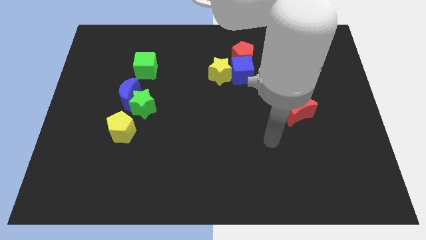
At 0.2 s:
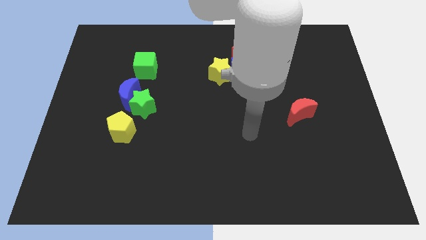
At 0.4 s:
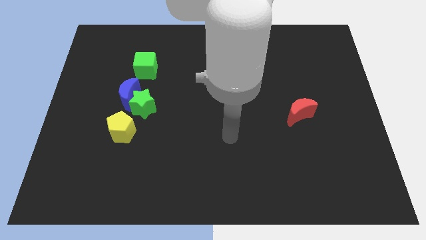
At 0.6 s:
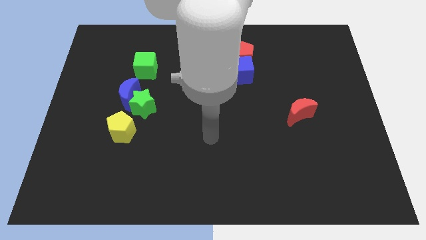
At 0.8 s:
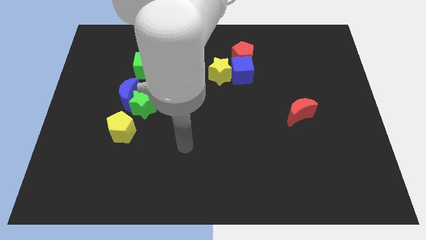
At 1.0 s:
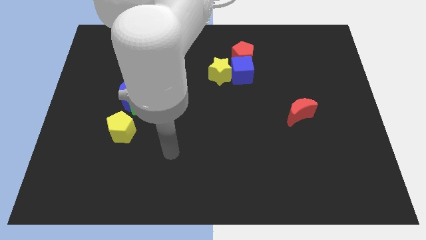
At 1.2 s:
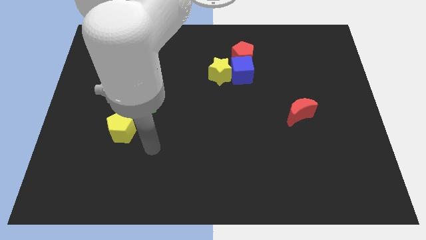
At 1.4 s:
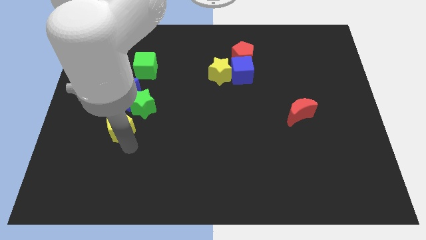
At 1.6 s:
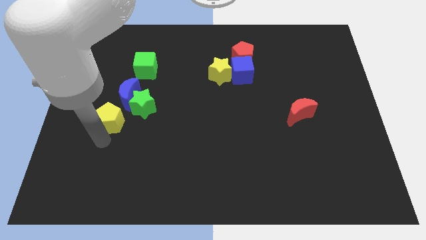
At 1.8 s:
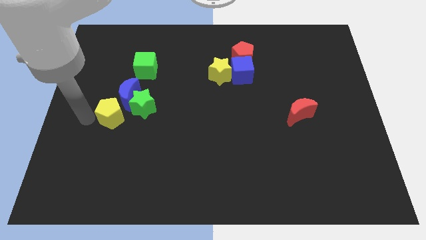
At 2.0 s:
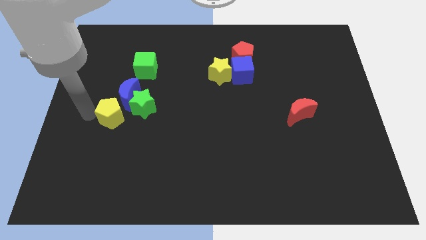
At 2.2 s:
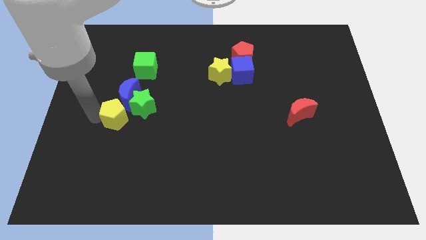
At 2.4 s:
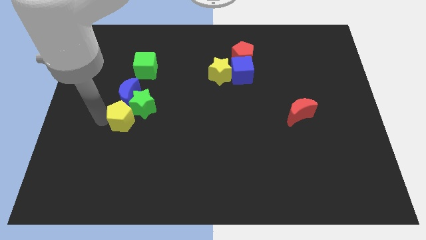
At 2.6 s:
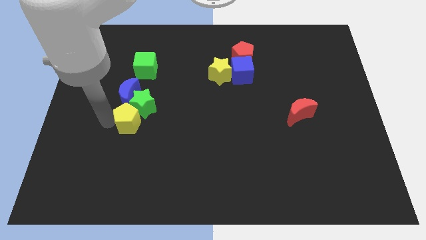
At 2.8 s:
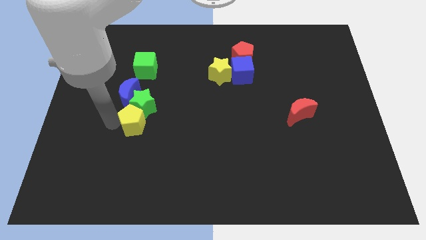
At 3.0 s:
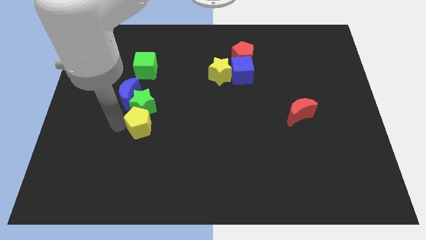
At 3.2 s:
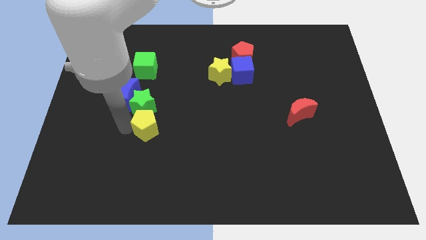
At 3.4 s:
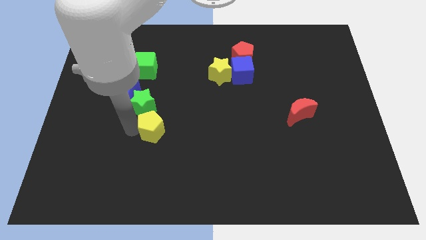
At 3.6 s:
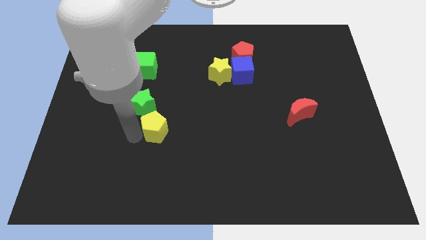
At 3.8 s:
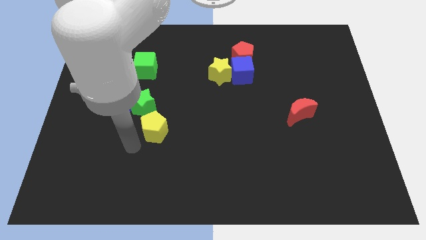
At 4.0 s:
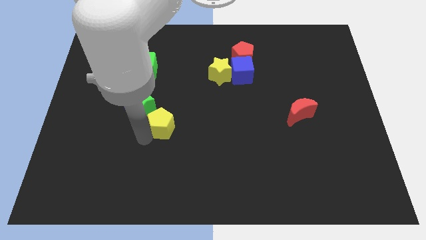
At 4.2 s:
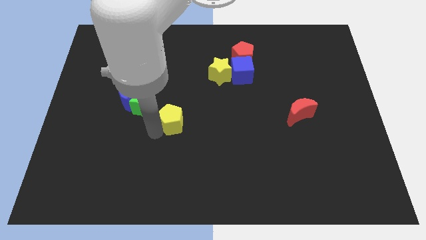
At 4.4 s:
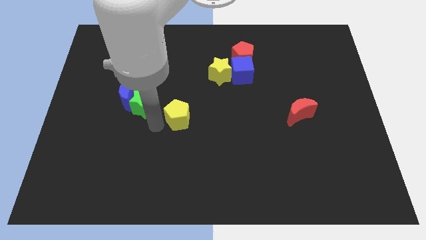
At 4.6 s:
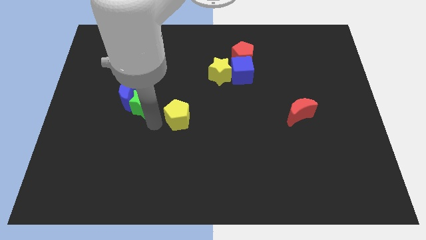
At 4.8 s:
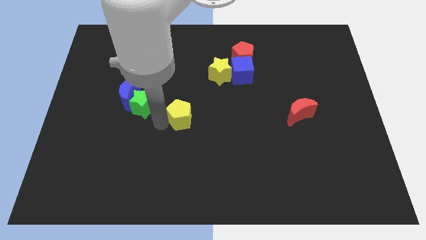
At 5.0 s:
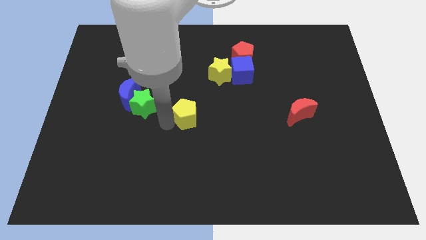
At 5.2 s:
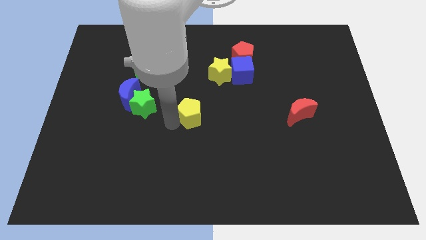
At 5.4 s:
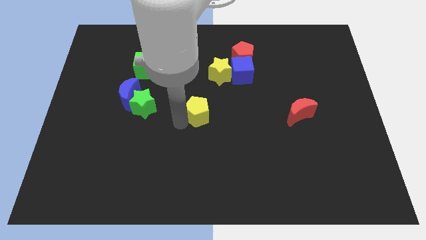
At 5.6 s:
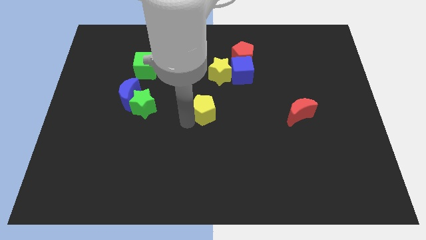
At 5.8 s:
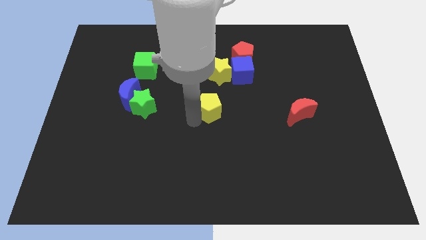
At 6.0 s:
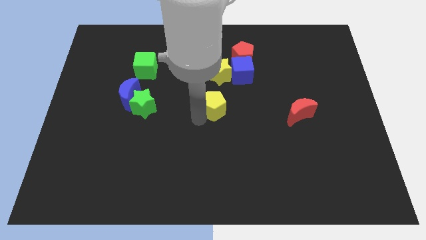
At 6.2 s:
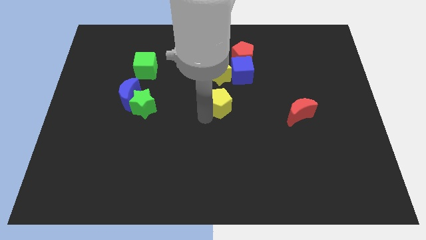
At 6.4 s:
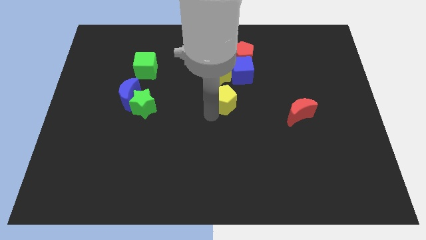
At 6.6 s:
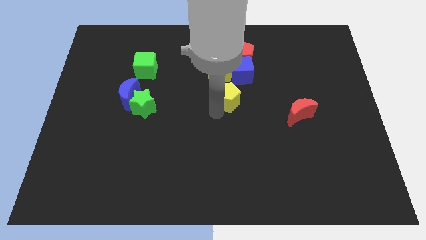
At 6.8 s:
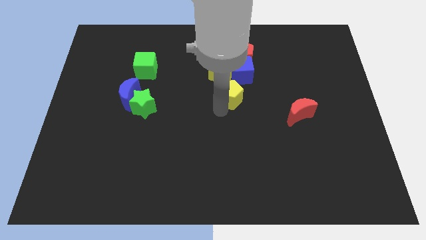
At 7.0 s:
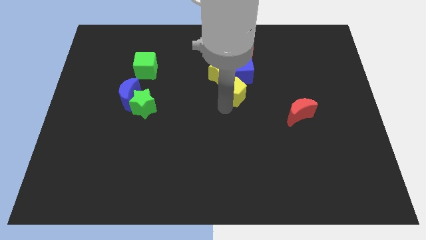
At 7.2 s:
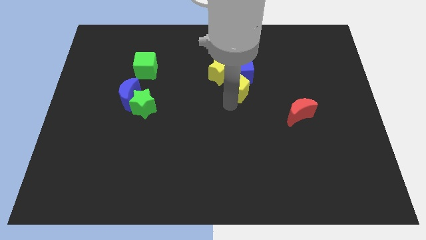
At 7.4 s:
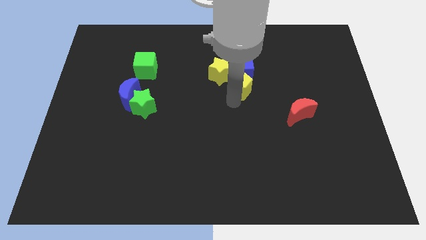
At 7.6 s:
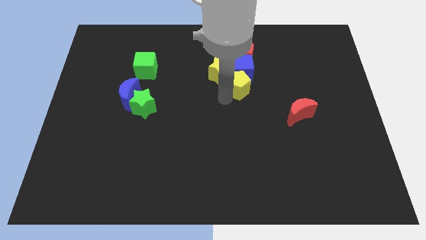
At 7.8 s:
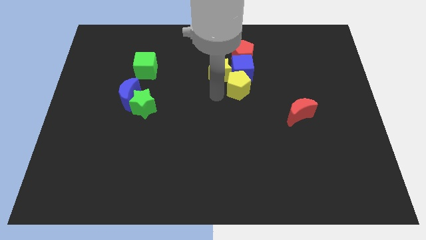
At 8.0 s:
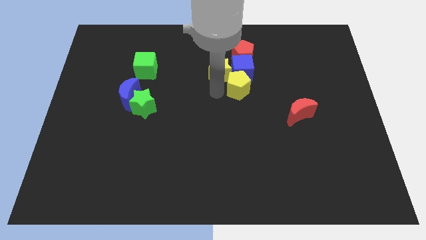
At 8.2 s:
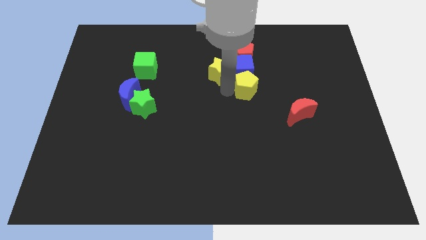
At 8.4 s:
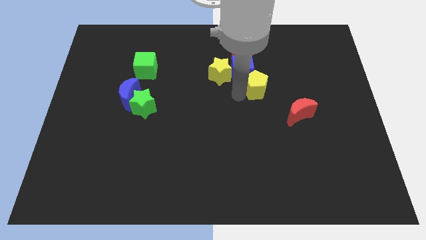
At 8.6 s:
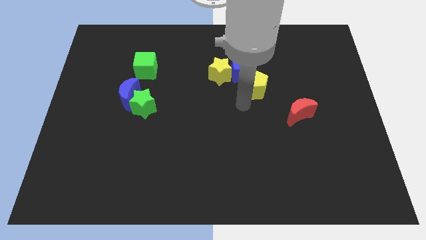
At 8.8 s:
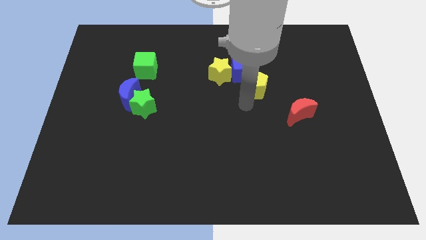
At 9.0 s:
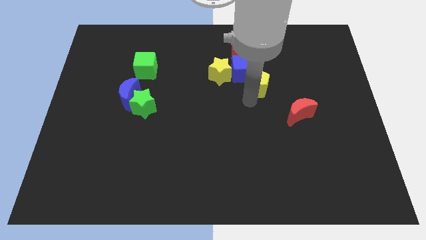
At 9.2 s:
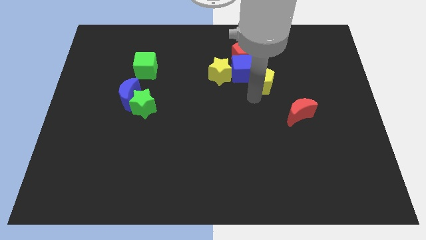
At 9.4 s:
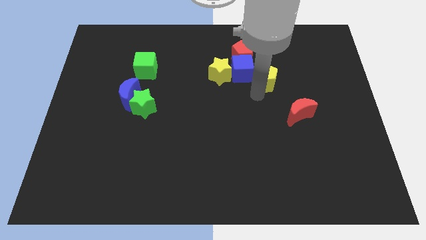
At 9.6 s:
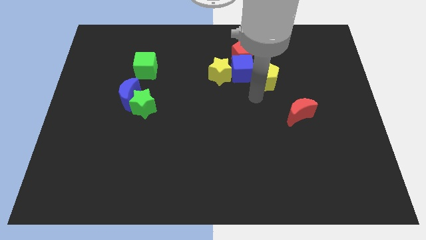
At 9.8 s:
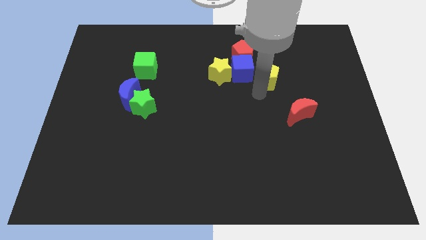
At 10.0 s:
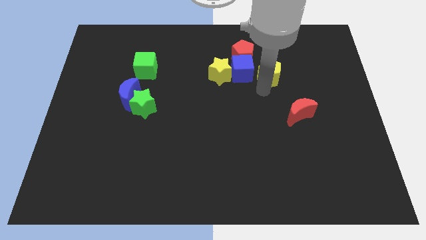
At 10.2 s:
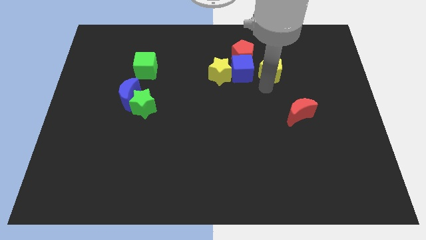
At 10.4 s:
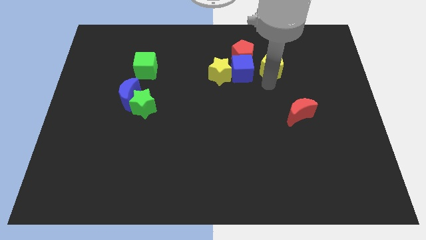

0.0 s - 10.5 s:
put the yellow pentagon just right of the red pentagon

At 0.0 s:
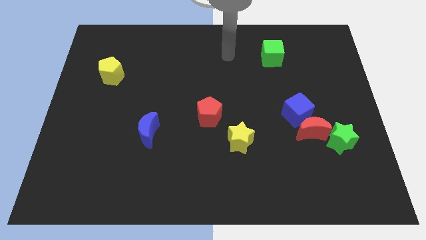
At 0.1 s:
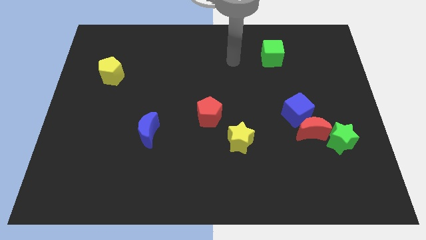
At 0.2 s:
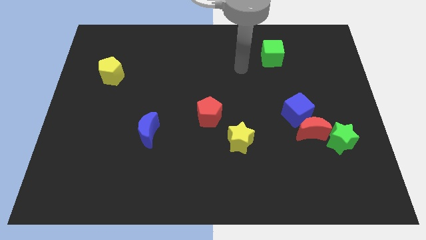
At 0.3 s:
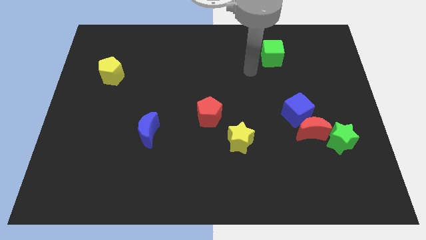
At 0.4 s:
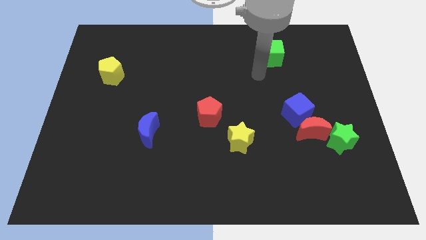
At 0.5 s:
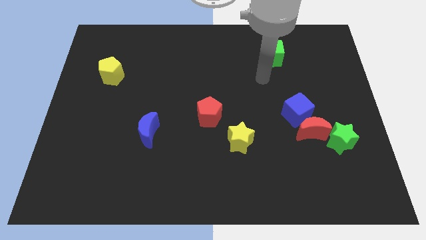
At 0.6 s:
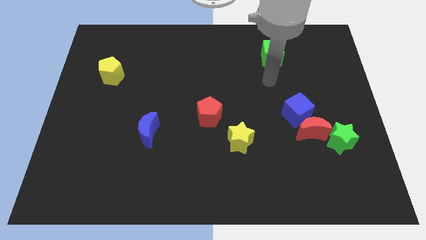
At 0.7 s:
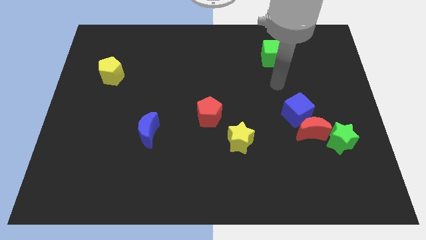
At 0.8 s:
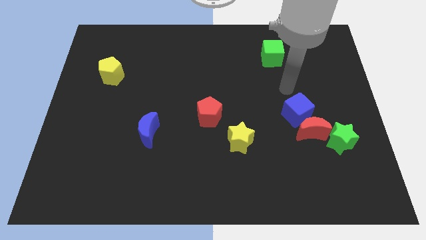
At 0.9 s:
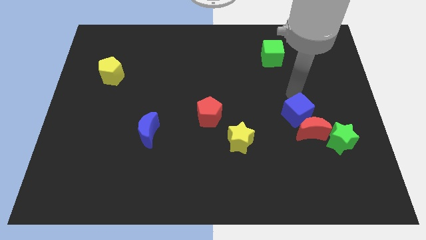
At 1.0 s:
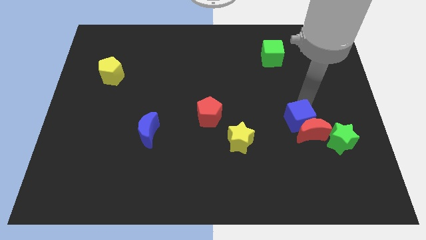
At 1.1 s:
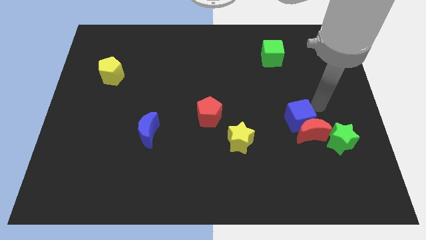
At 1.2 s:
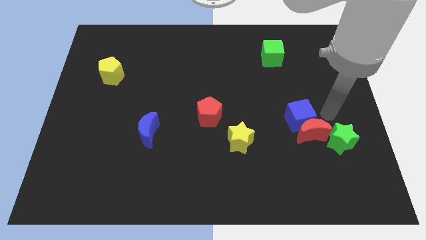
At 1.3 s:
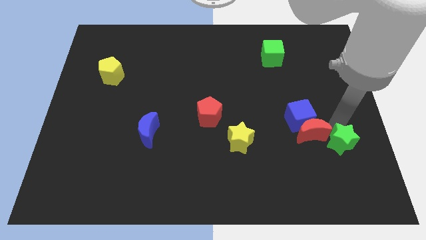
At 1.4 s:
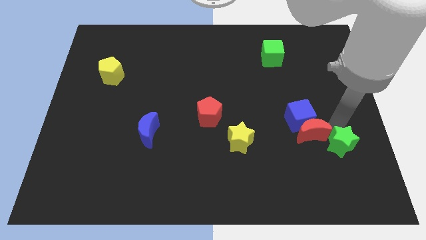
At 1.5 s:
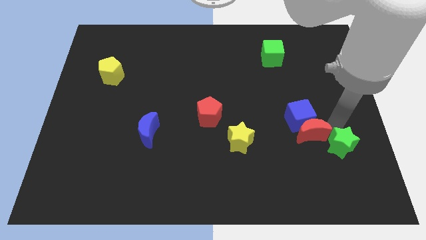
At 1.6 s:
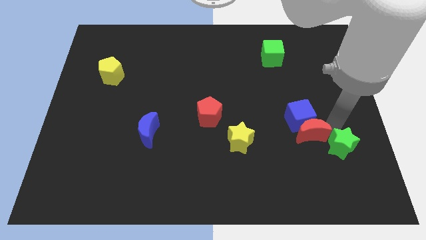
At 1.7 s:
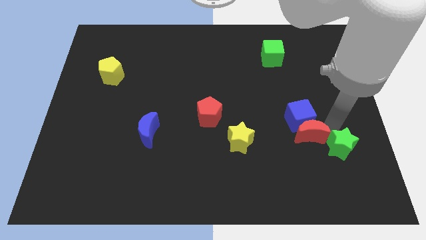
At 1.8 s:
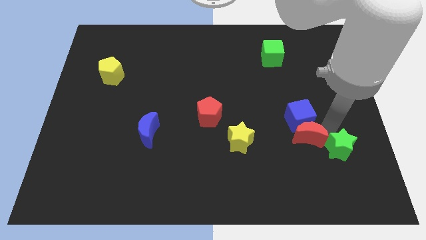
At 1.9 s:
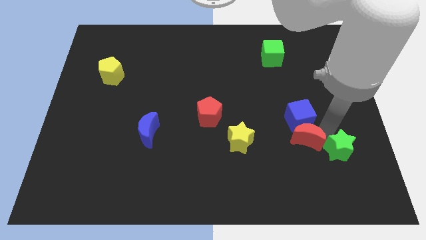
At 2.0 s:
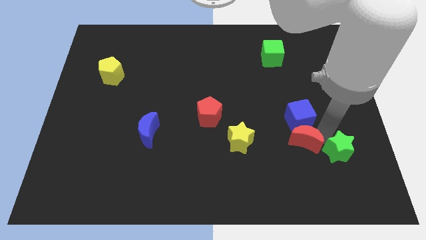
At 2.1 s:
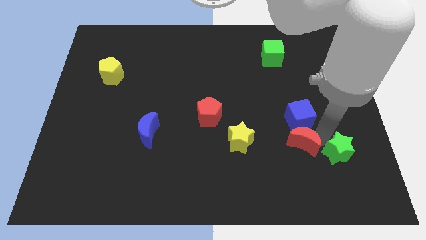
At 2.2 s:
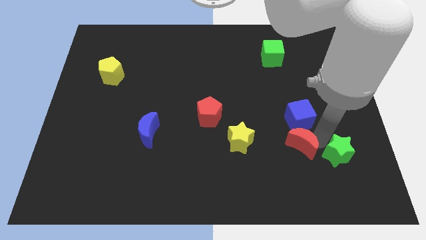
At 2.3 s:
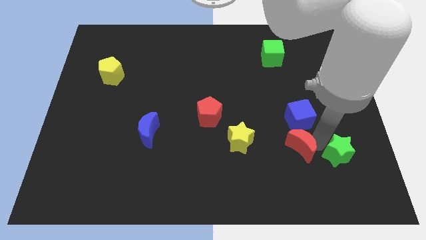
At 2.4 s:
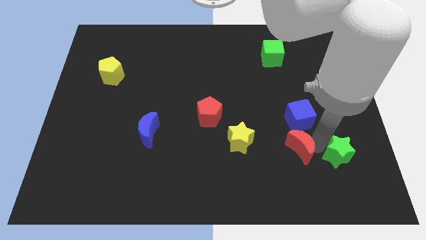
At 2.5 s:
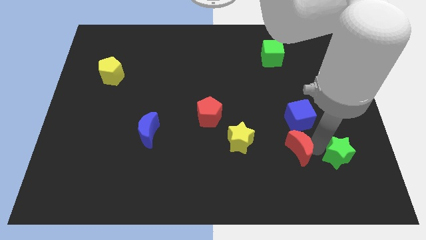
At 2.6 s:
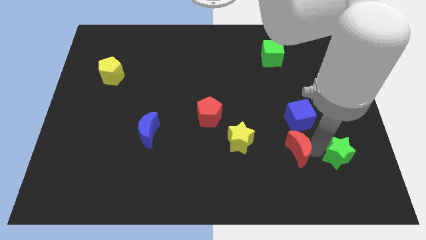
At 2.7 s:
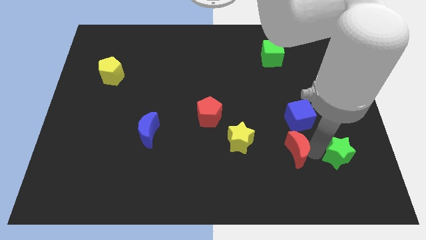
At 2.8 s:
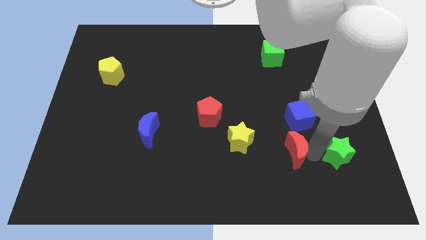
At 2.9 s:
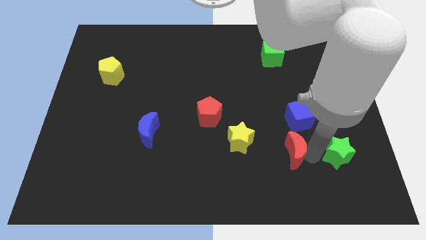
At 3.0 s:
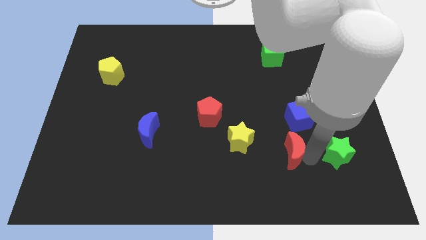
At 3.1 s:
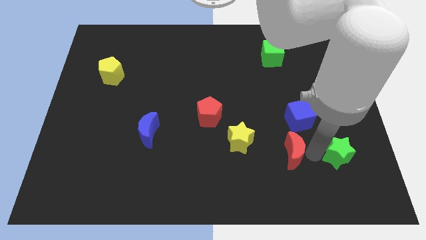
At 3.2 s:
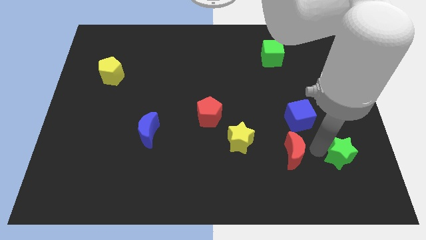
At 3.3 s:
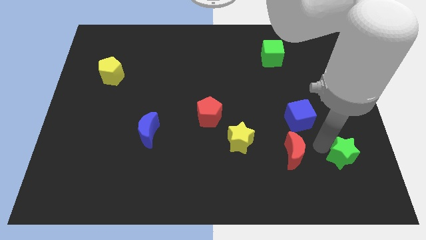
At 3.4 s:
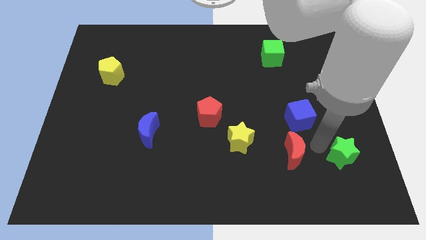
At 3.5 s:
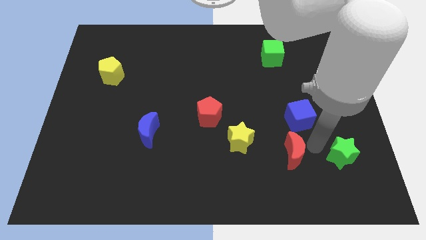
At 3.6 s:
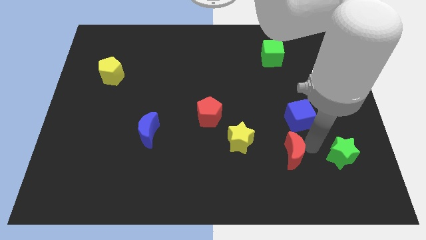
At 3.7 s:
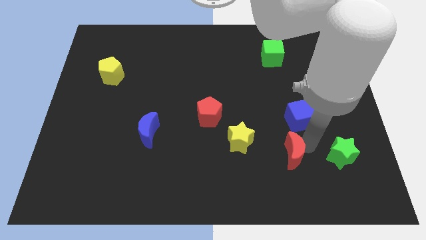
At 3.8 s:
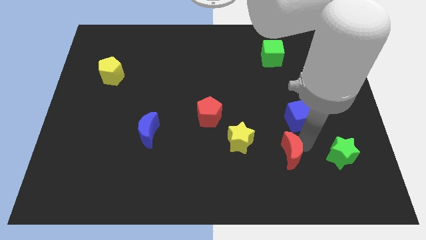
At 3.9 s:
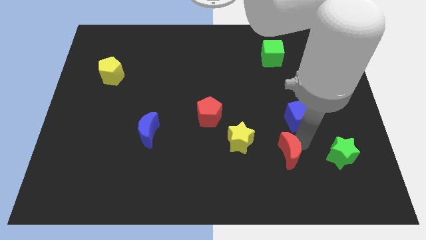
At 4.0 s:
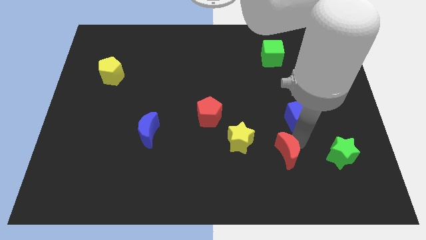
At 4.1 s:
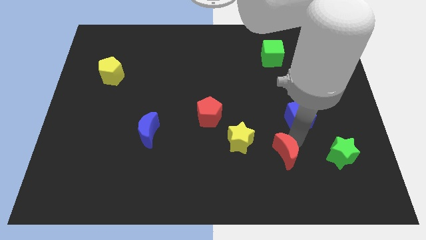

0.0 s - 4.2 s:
slide the red moon diagonally down and to the right of the yellow star
